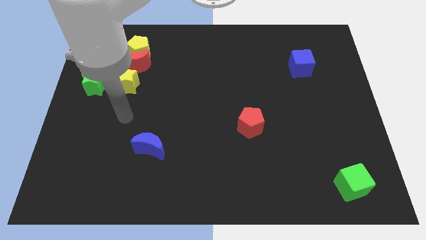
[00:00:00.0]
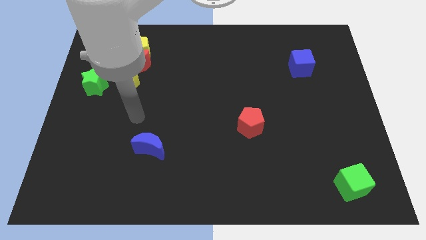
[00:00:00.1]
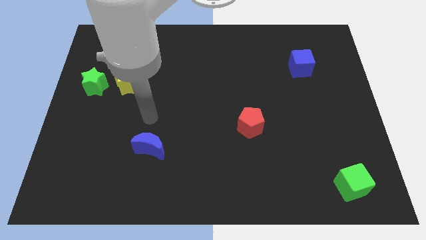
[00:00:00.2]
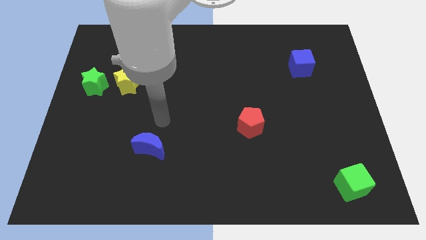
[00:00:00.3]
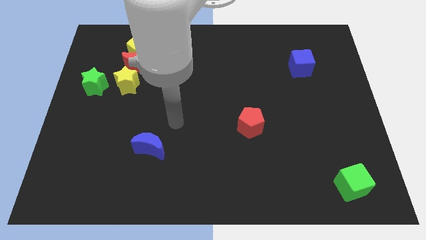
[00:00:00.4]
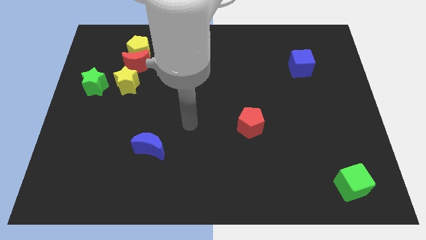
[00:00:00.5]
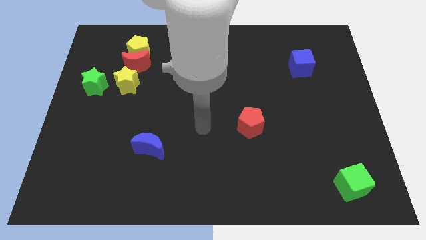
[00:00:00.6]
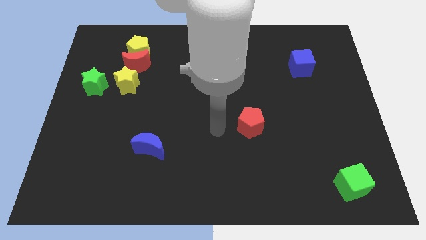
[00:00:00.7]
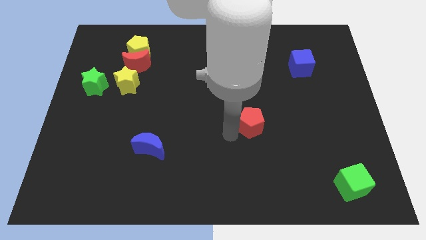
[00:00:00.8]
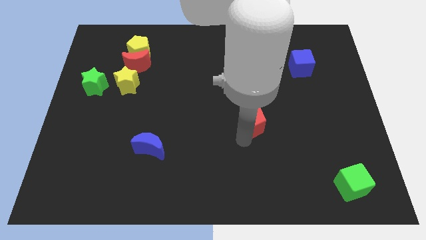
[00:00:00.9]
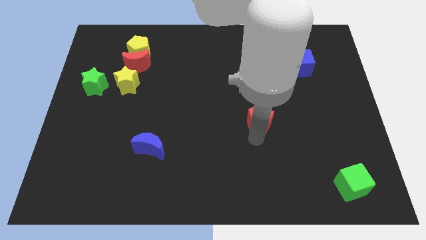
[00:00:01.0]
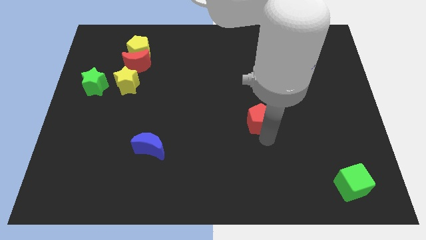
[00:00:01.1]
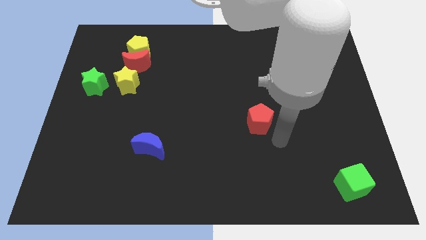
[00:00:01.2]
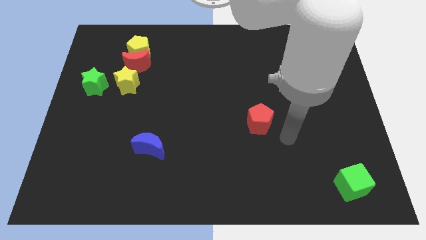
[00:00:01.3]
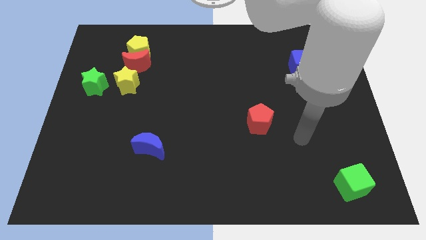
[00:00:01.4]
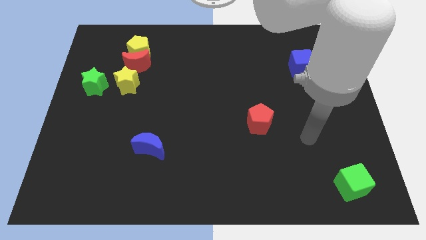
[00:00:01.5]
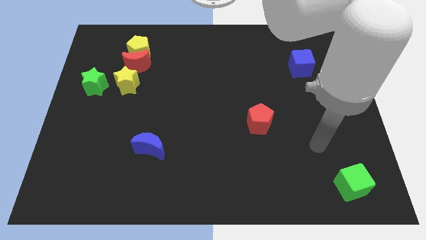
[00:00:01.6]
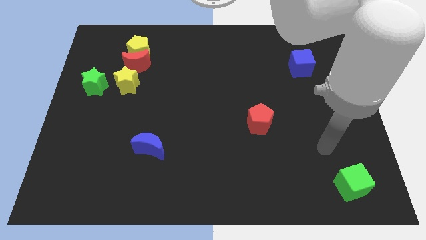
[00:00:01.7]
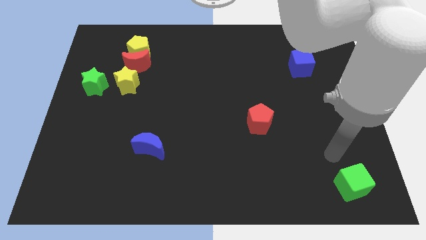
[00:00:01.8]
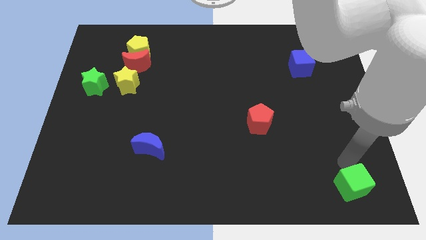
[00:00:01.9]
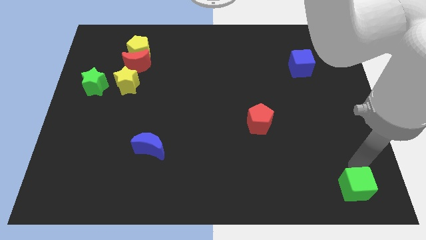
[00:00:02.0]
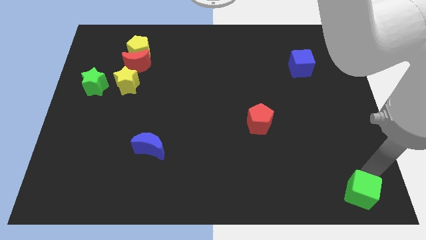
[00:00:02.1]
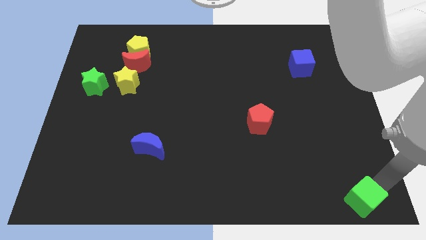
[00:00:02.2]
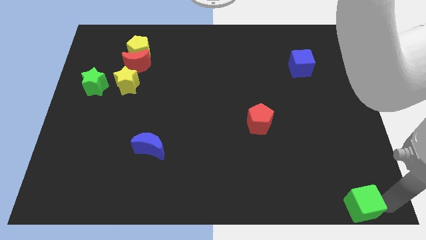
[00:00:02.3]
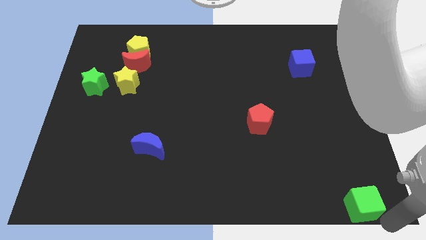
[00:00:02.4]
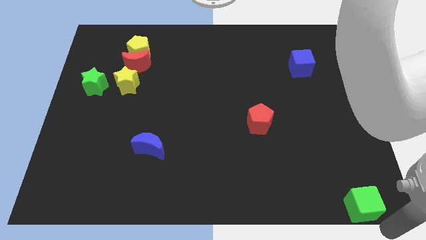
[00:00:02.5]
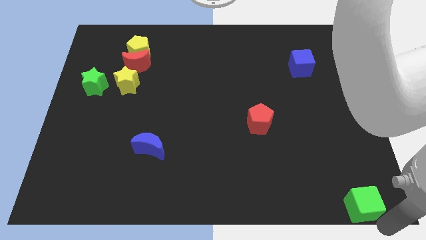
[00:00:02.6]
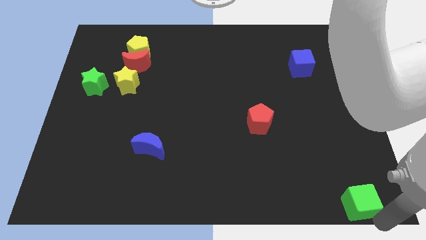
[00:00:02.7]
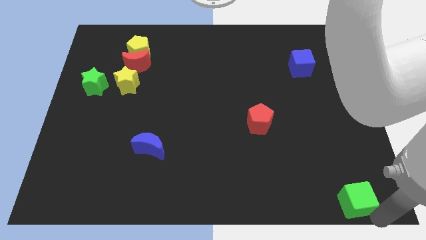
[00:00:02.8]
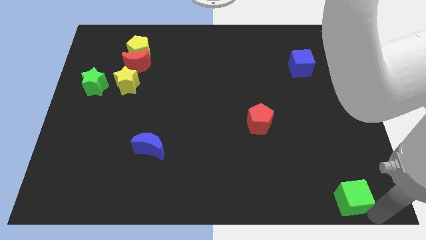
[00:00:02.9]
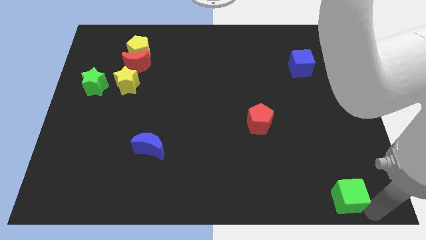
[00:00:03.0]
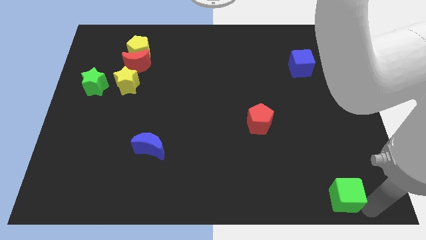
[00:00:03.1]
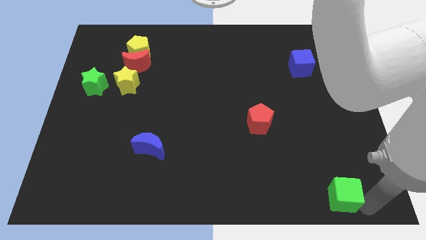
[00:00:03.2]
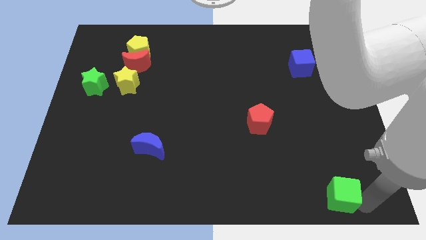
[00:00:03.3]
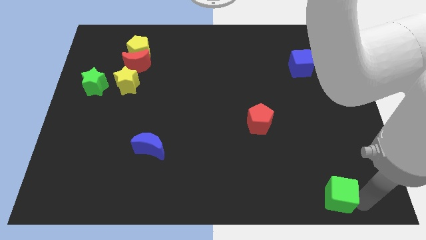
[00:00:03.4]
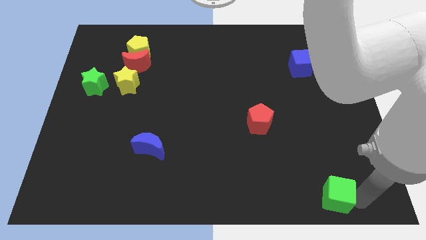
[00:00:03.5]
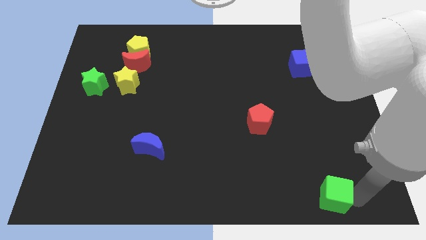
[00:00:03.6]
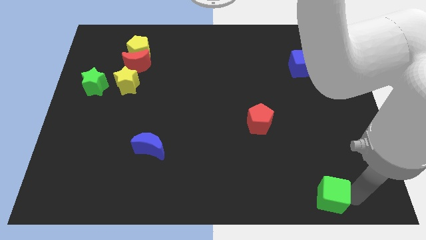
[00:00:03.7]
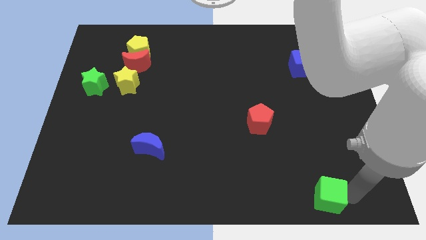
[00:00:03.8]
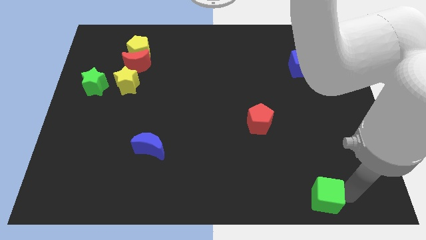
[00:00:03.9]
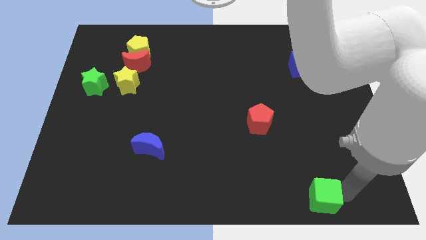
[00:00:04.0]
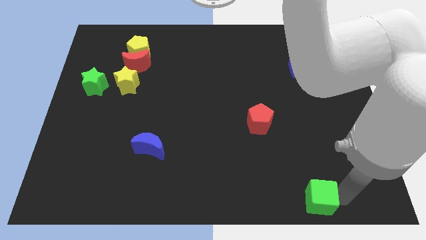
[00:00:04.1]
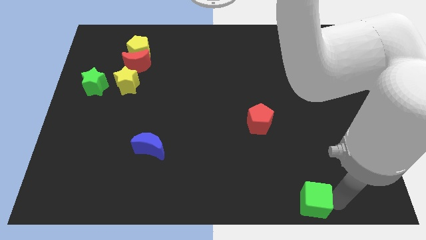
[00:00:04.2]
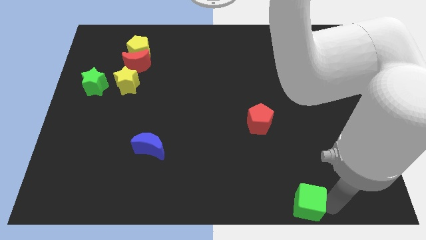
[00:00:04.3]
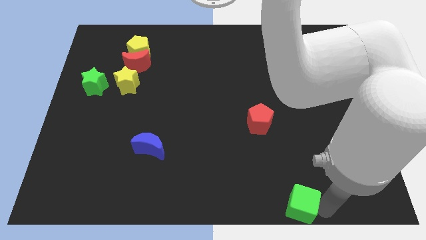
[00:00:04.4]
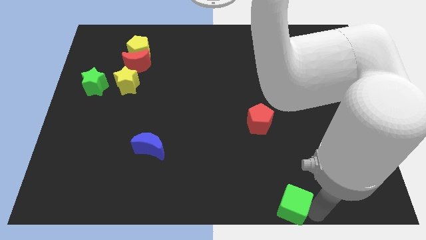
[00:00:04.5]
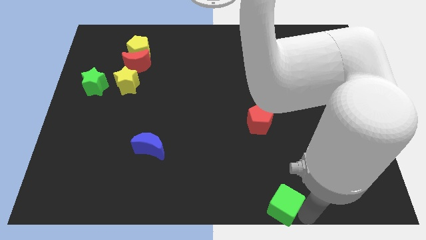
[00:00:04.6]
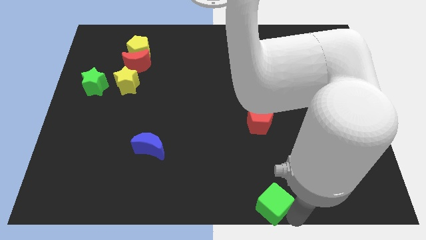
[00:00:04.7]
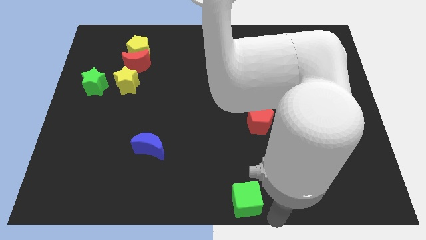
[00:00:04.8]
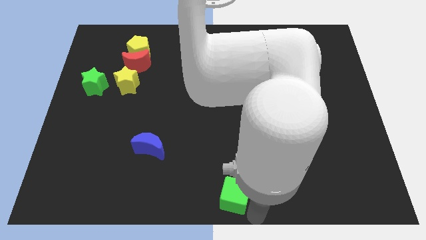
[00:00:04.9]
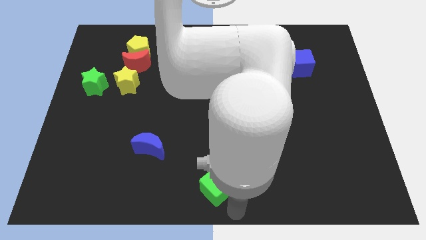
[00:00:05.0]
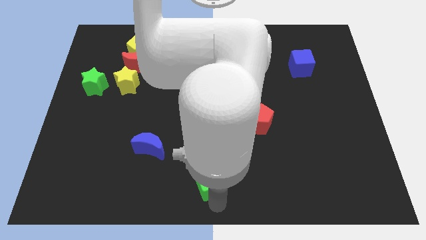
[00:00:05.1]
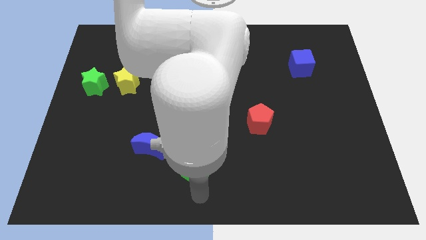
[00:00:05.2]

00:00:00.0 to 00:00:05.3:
push the green cube diagonally down and to the right of the blue moon

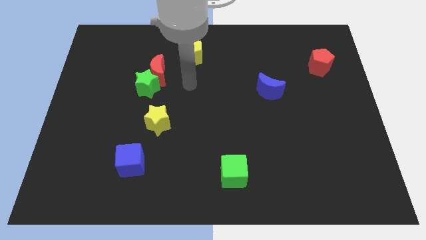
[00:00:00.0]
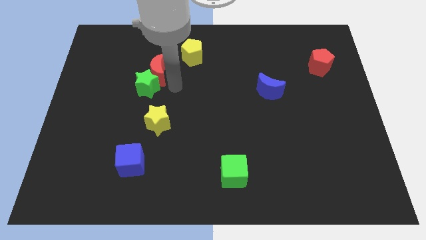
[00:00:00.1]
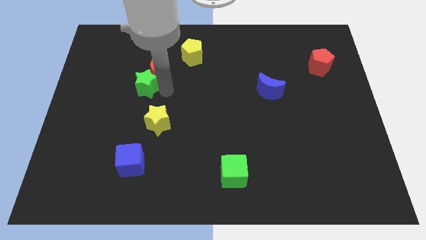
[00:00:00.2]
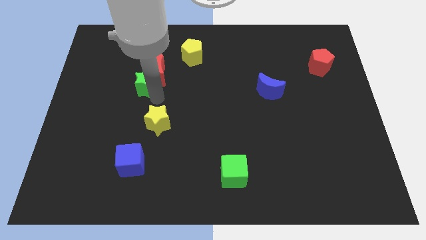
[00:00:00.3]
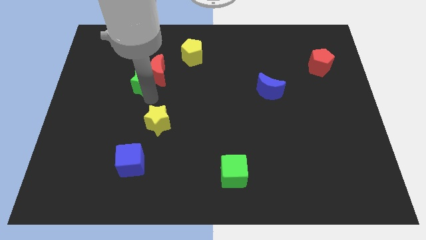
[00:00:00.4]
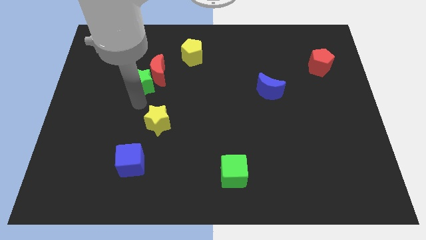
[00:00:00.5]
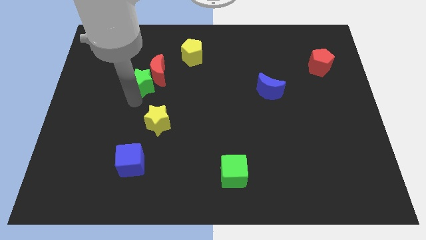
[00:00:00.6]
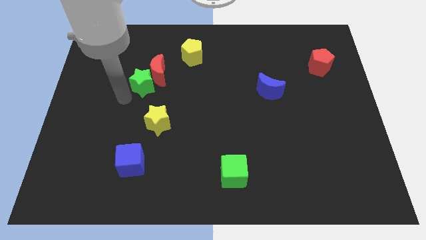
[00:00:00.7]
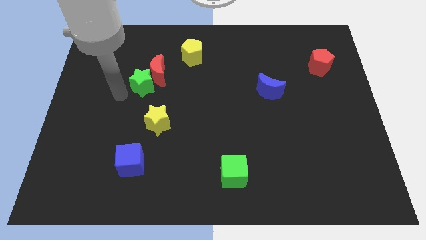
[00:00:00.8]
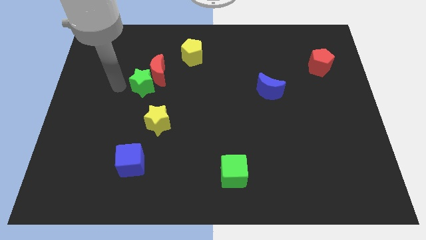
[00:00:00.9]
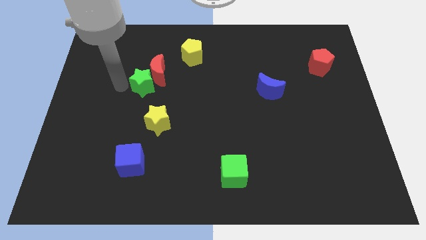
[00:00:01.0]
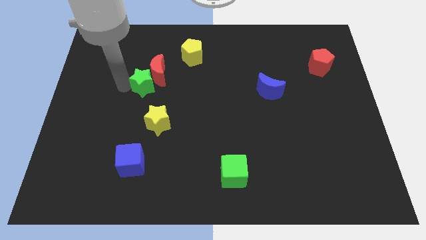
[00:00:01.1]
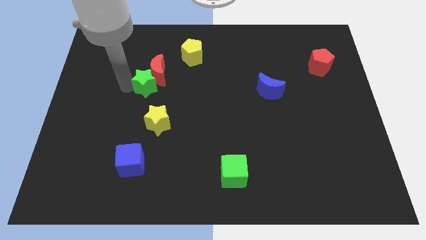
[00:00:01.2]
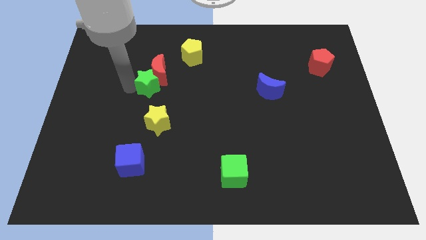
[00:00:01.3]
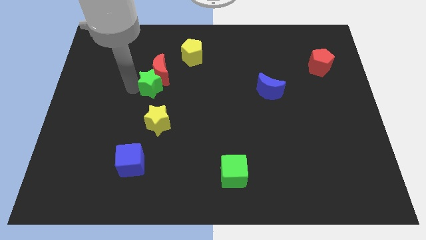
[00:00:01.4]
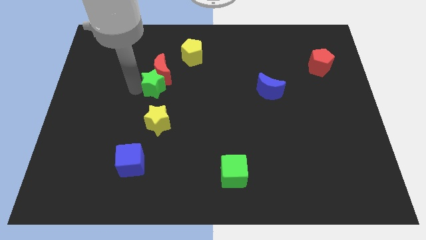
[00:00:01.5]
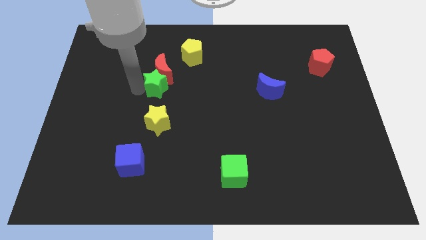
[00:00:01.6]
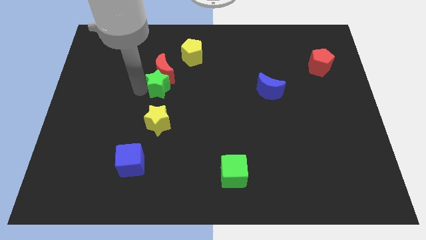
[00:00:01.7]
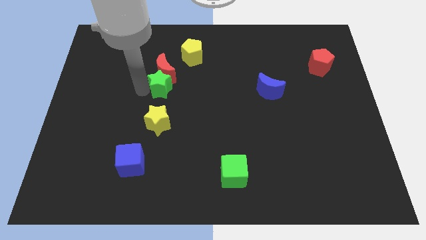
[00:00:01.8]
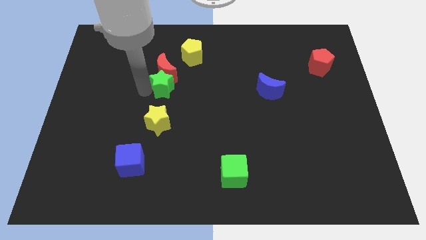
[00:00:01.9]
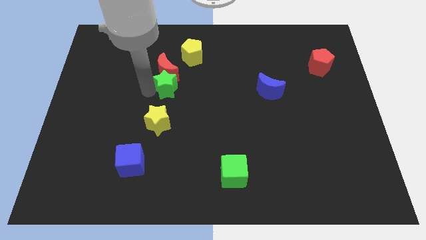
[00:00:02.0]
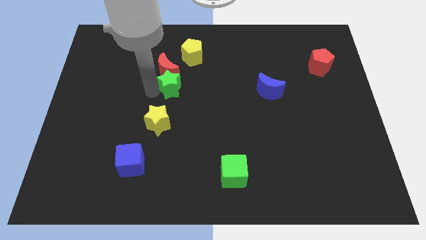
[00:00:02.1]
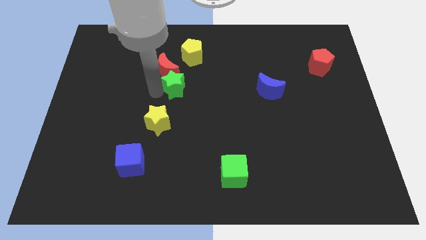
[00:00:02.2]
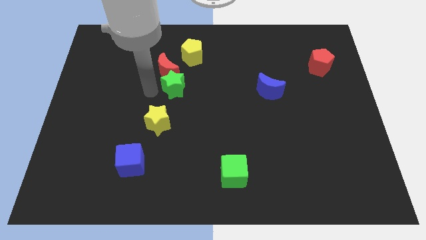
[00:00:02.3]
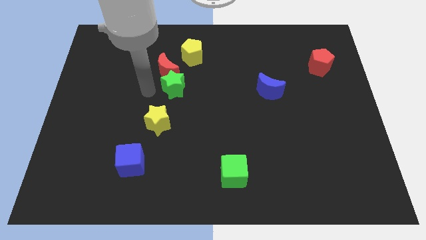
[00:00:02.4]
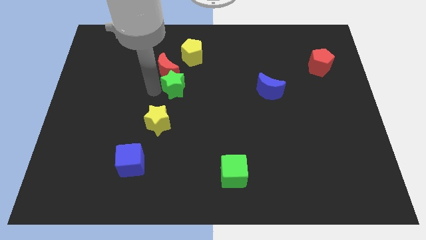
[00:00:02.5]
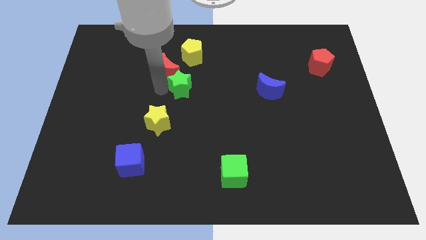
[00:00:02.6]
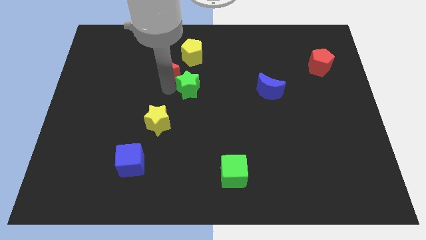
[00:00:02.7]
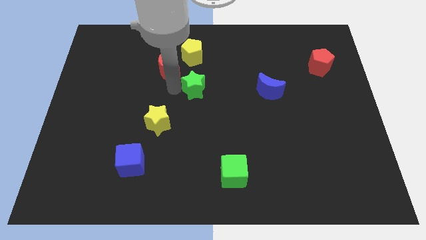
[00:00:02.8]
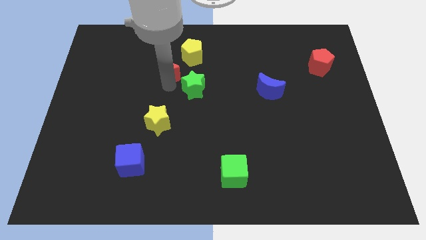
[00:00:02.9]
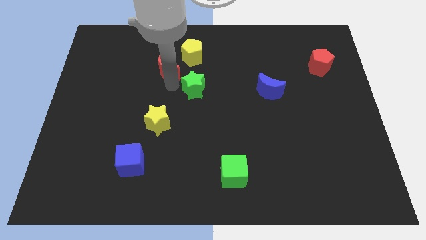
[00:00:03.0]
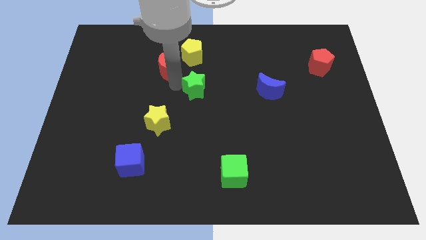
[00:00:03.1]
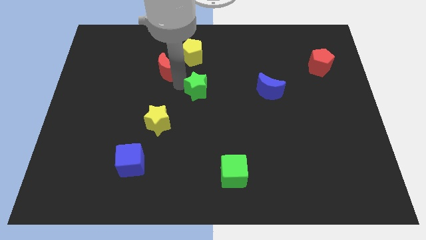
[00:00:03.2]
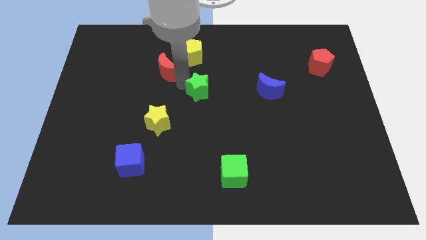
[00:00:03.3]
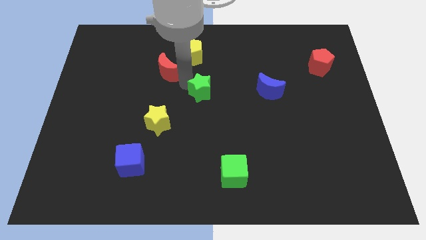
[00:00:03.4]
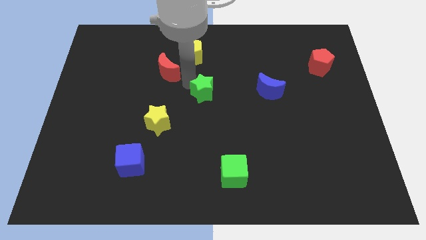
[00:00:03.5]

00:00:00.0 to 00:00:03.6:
move the green star to the left side of the blue moon
